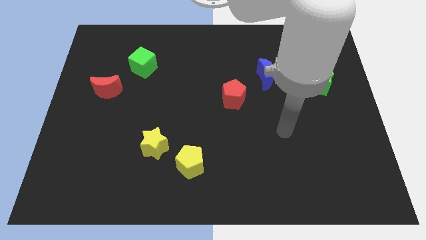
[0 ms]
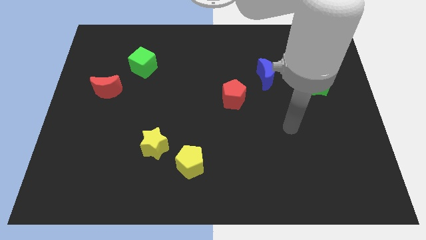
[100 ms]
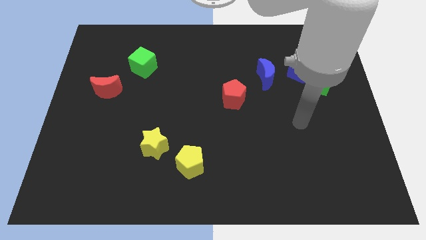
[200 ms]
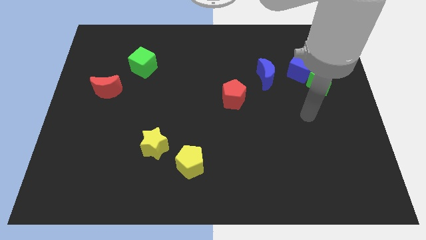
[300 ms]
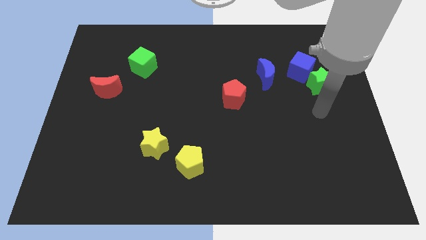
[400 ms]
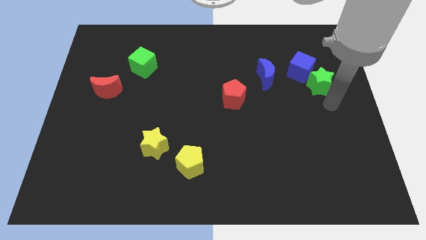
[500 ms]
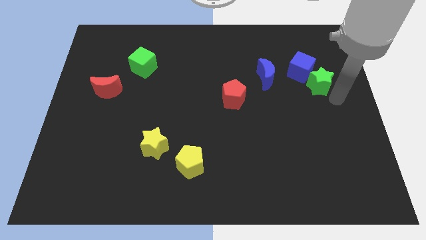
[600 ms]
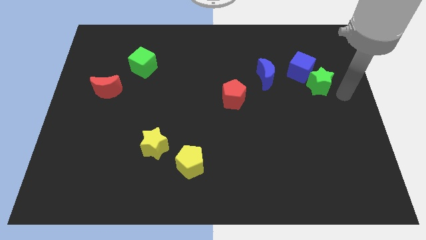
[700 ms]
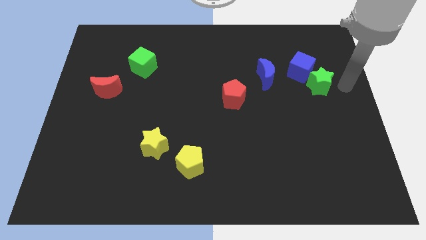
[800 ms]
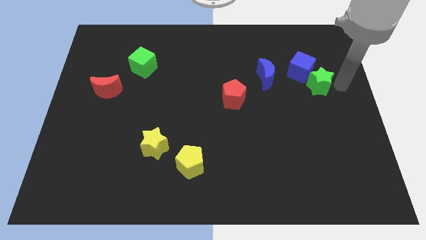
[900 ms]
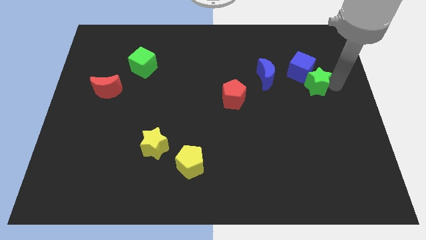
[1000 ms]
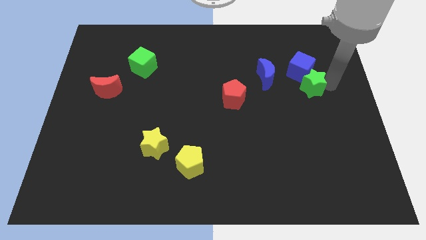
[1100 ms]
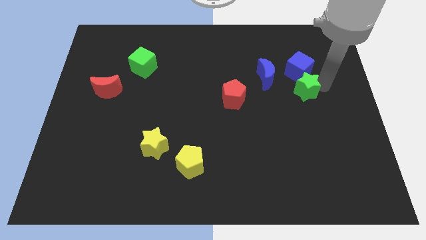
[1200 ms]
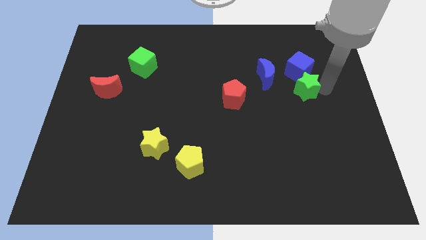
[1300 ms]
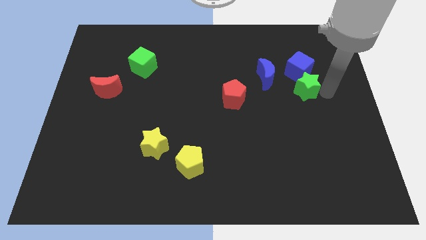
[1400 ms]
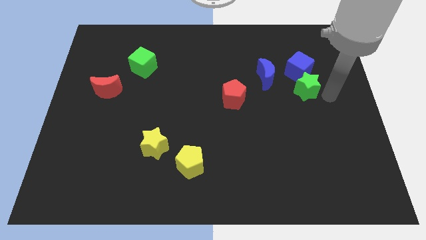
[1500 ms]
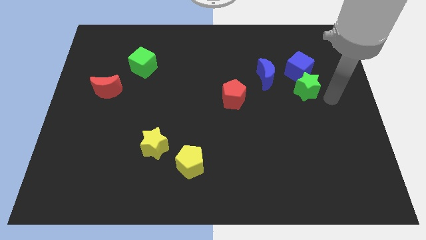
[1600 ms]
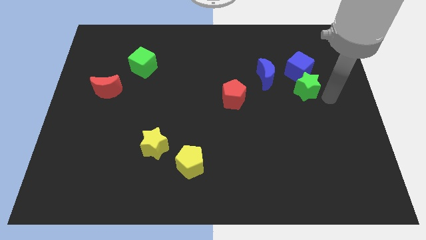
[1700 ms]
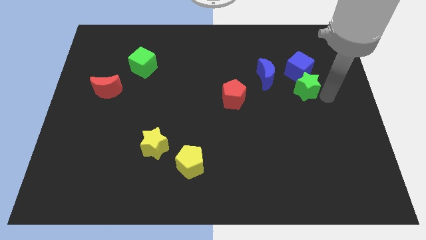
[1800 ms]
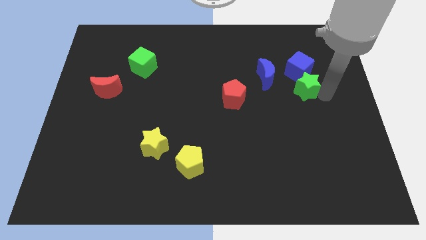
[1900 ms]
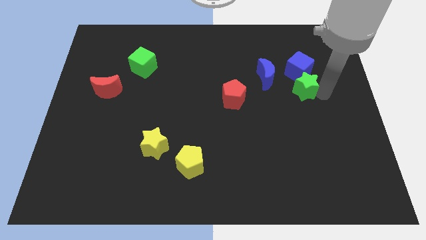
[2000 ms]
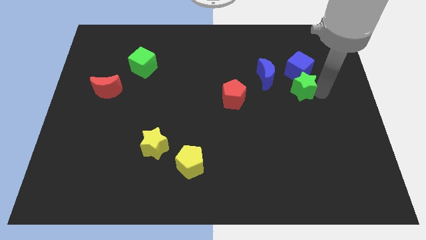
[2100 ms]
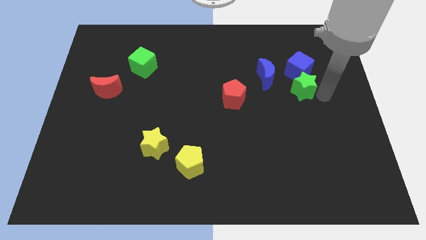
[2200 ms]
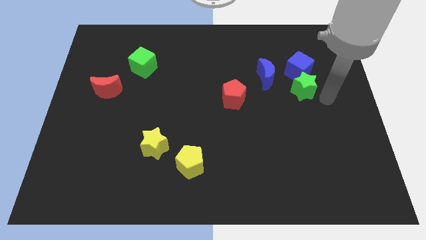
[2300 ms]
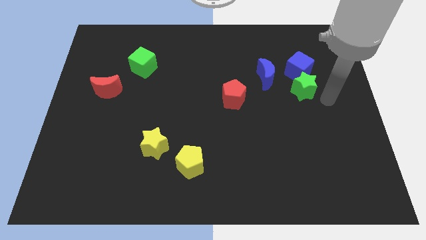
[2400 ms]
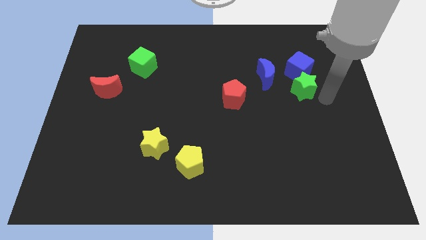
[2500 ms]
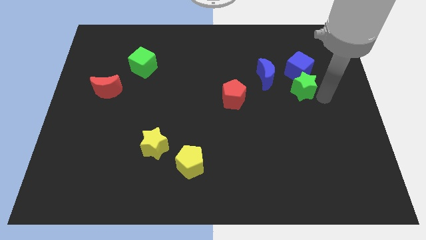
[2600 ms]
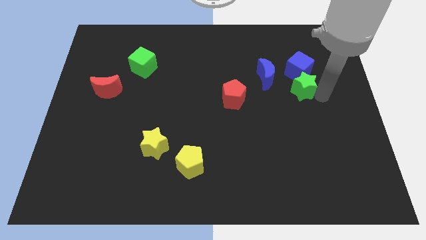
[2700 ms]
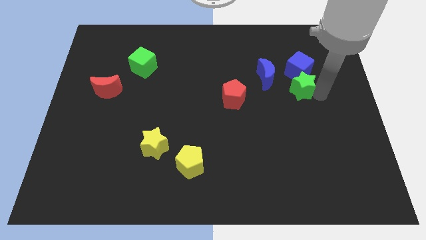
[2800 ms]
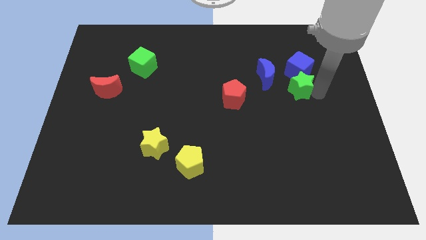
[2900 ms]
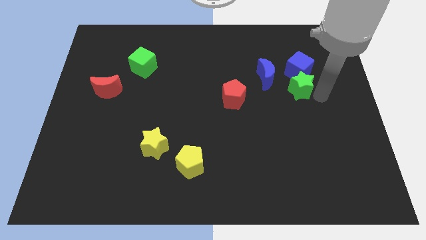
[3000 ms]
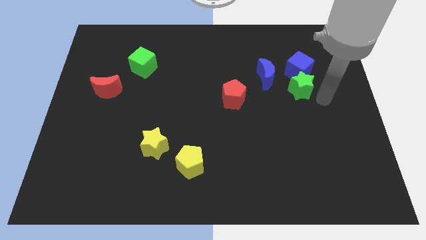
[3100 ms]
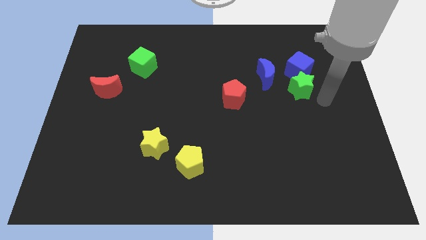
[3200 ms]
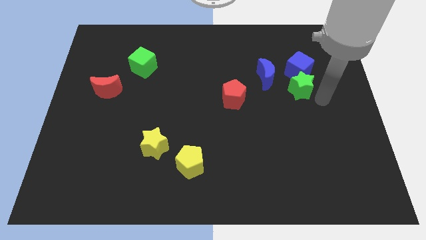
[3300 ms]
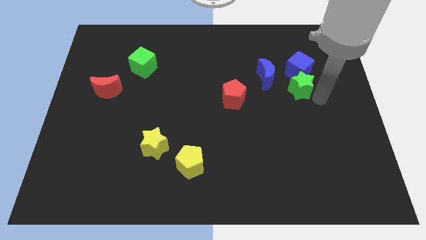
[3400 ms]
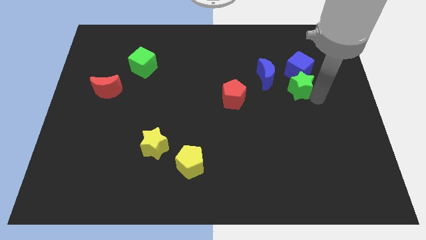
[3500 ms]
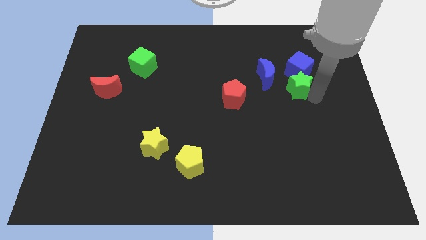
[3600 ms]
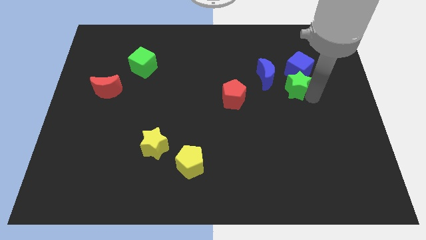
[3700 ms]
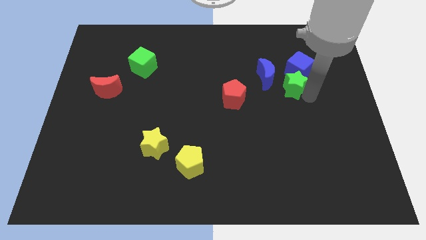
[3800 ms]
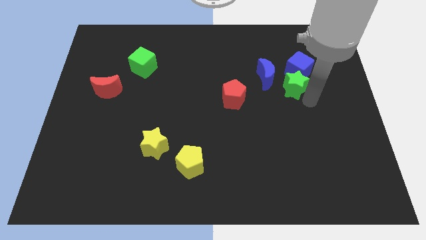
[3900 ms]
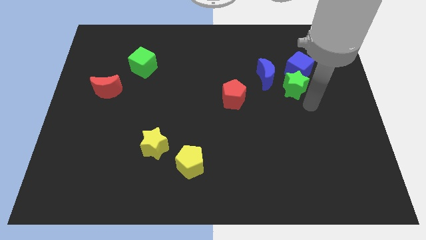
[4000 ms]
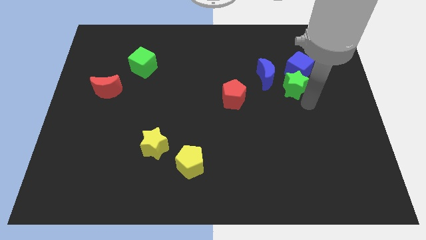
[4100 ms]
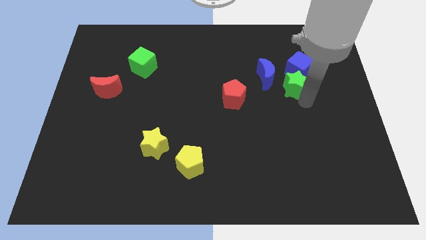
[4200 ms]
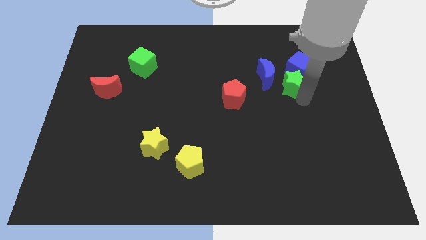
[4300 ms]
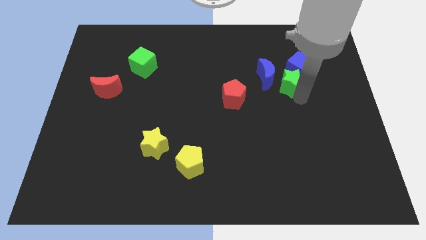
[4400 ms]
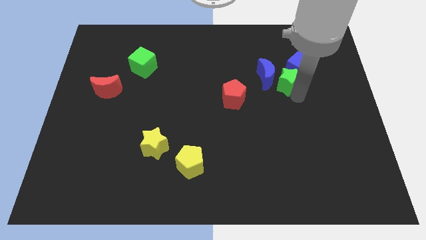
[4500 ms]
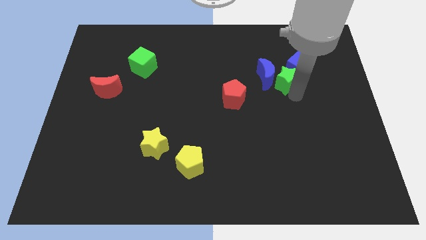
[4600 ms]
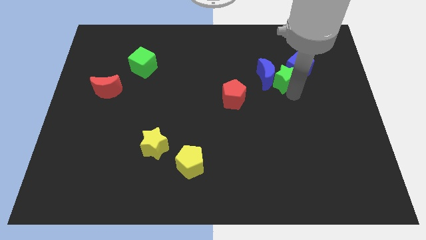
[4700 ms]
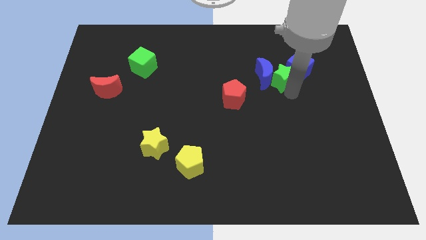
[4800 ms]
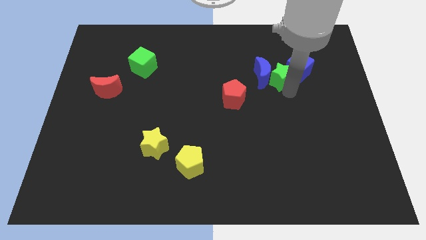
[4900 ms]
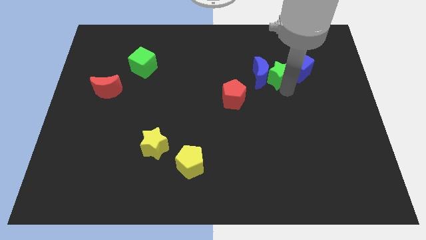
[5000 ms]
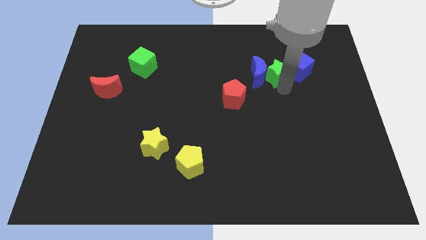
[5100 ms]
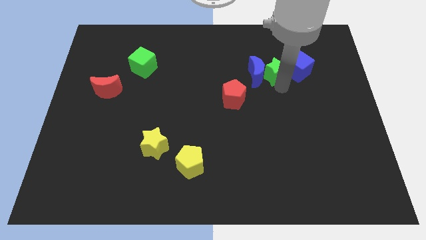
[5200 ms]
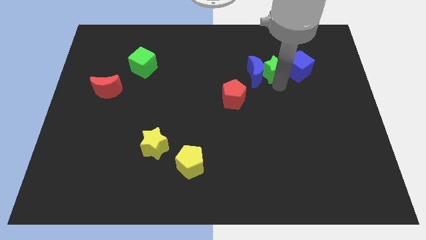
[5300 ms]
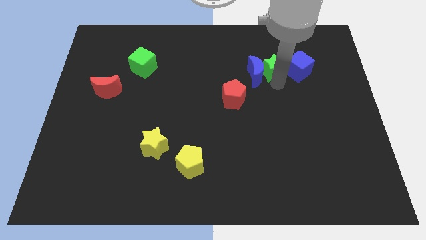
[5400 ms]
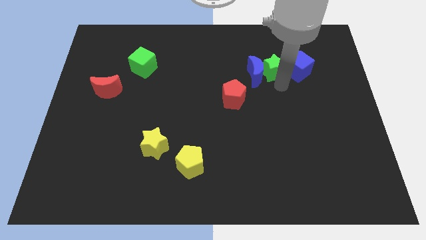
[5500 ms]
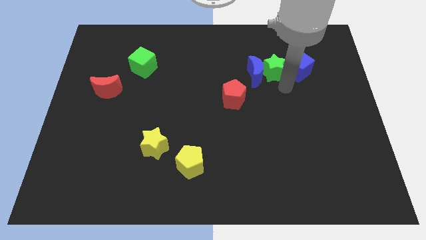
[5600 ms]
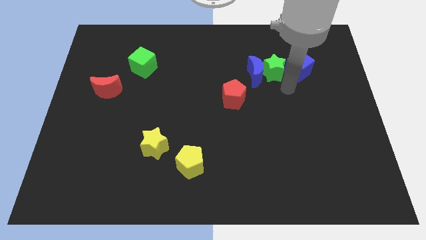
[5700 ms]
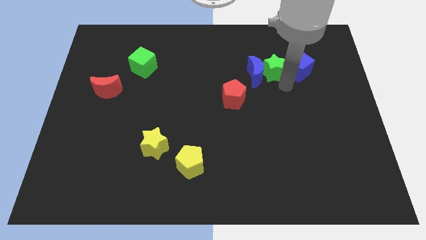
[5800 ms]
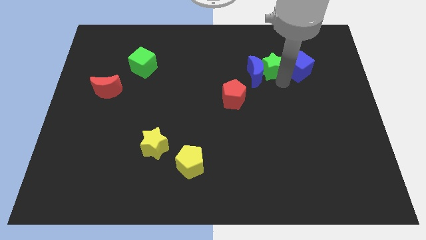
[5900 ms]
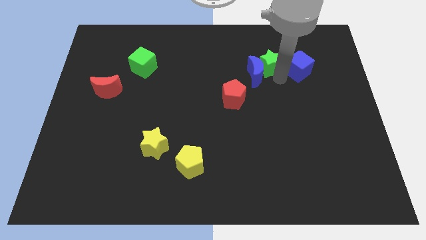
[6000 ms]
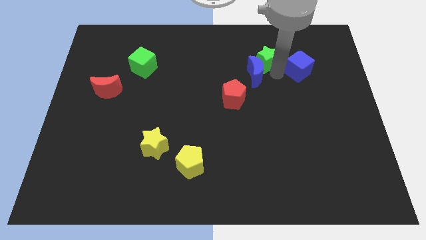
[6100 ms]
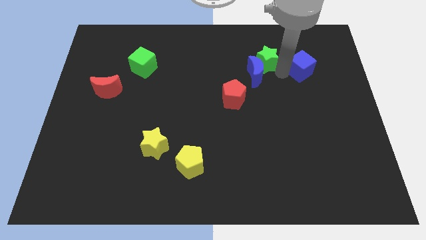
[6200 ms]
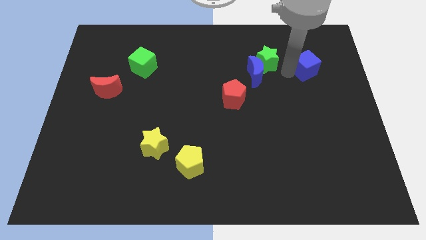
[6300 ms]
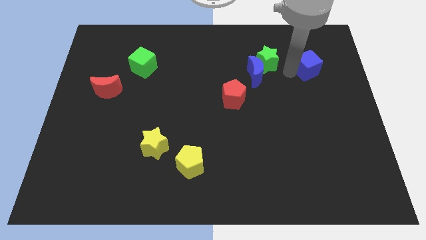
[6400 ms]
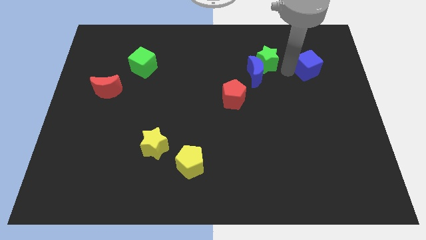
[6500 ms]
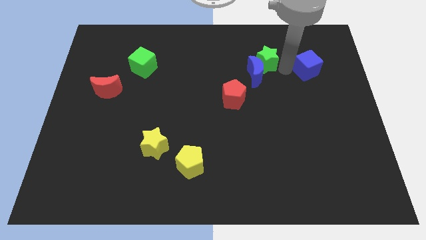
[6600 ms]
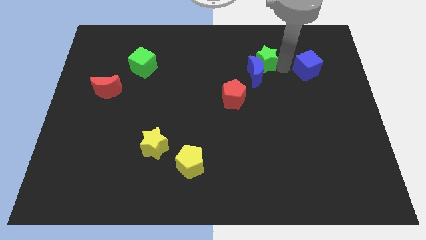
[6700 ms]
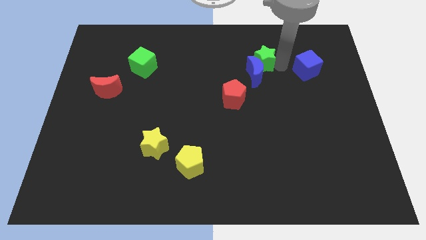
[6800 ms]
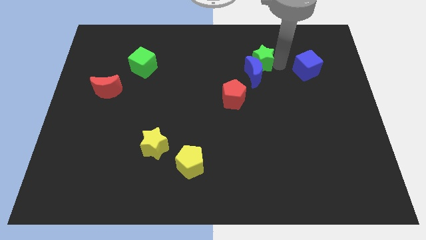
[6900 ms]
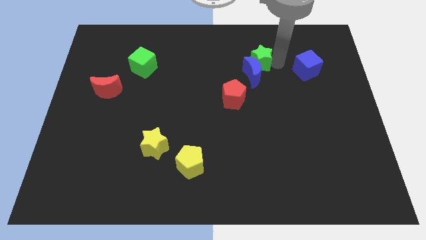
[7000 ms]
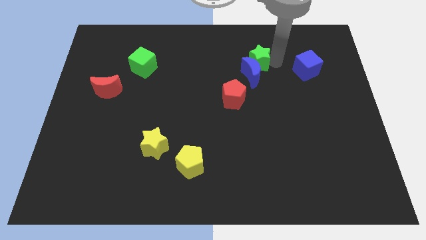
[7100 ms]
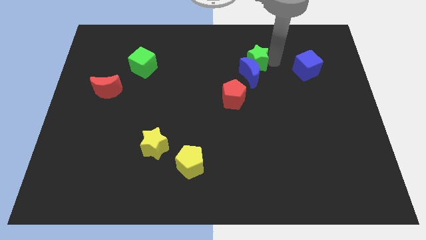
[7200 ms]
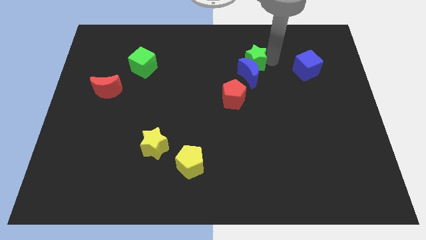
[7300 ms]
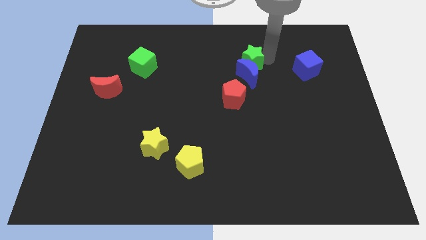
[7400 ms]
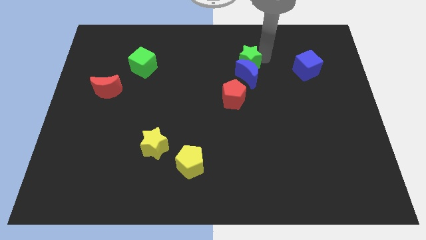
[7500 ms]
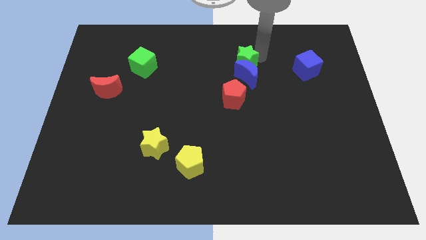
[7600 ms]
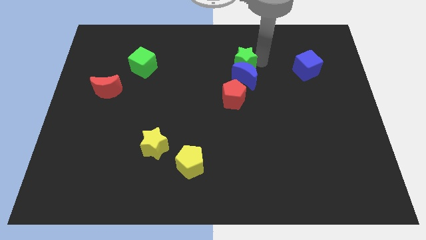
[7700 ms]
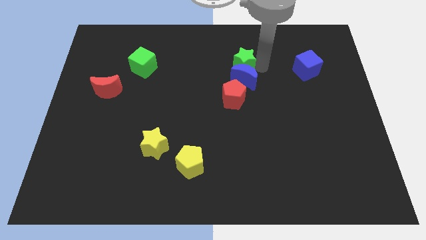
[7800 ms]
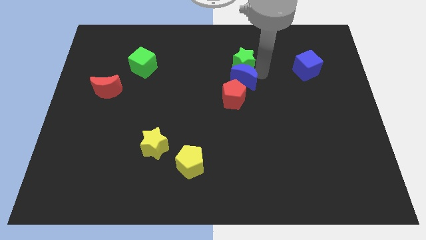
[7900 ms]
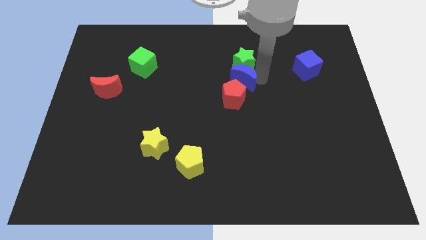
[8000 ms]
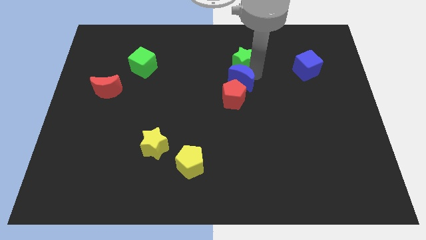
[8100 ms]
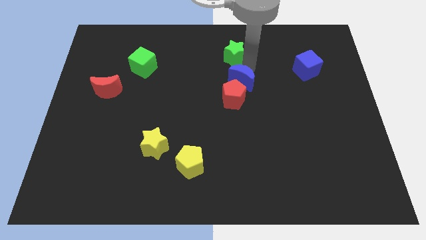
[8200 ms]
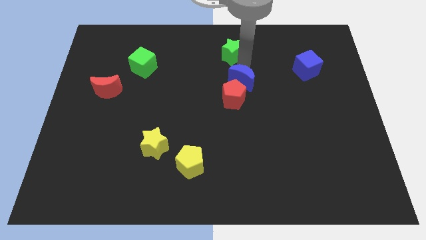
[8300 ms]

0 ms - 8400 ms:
slide the green star to the top side
